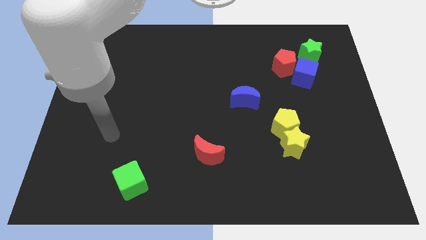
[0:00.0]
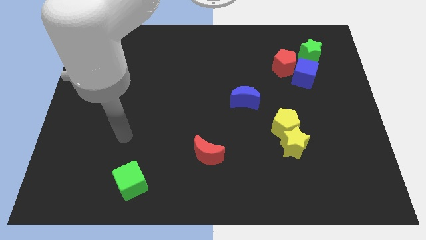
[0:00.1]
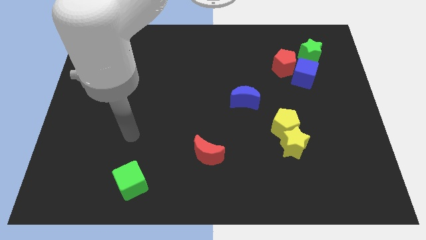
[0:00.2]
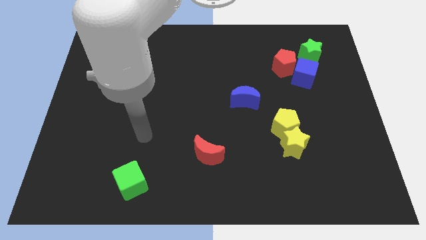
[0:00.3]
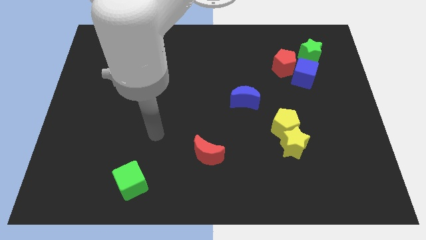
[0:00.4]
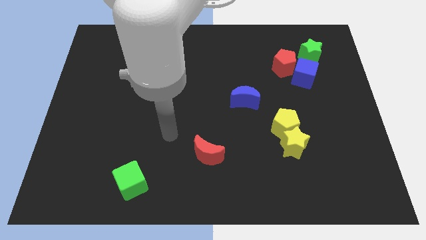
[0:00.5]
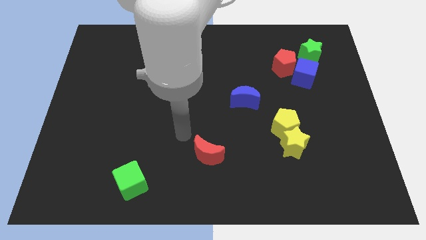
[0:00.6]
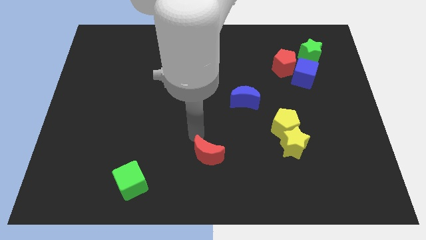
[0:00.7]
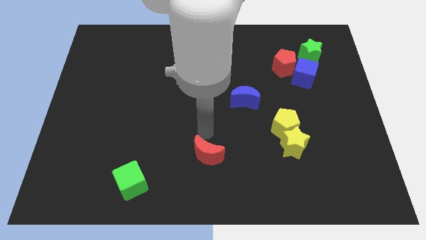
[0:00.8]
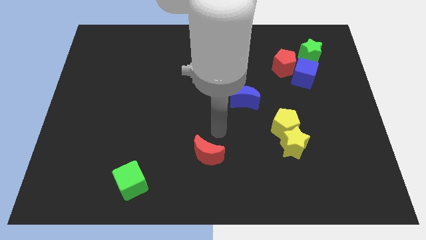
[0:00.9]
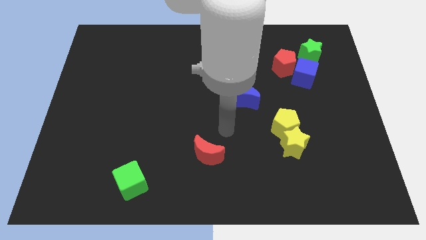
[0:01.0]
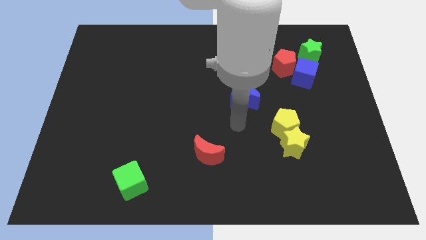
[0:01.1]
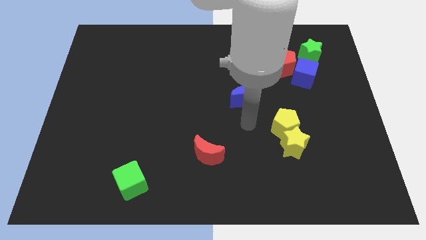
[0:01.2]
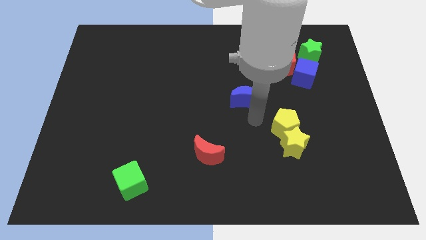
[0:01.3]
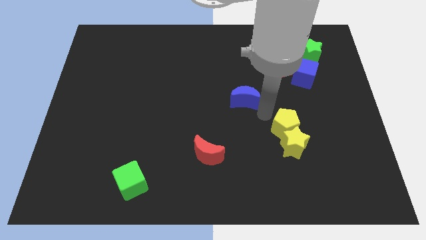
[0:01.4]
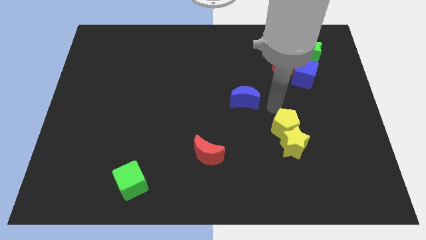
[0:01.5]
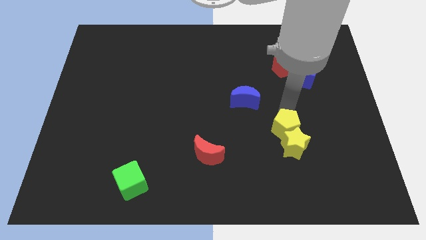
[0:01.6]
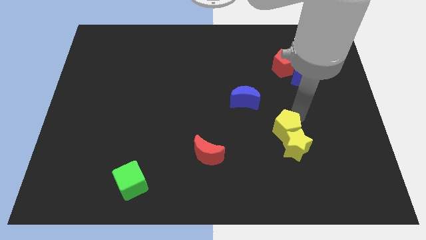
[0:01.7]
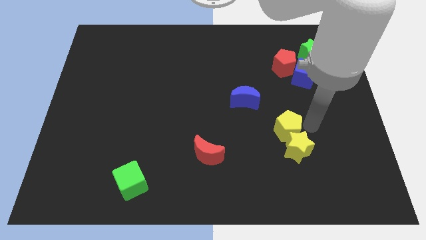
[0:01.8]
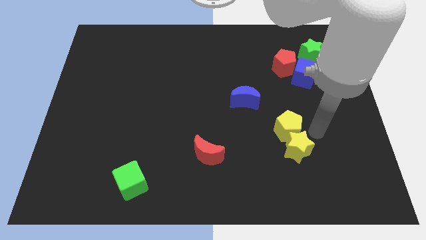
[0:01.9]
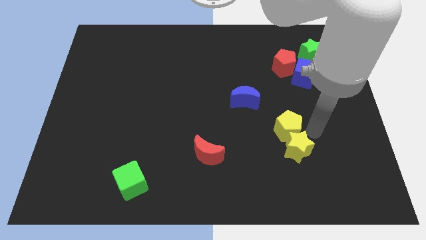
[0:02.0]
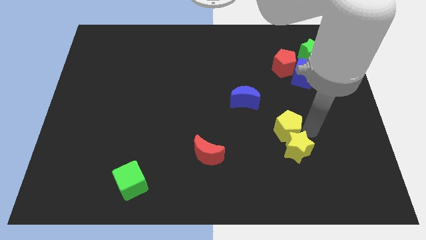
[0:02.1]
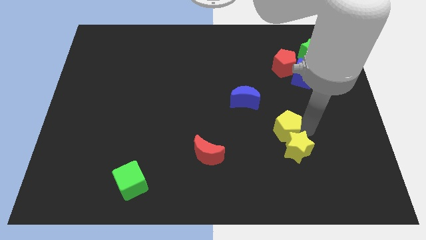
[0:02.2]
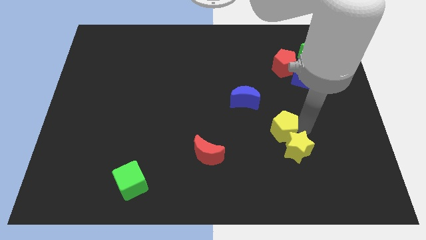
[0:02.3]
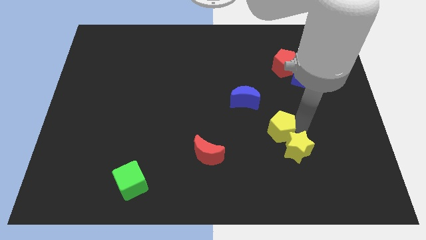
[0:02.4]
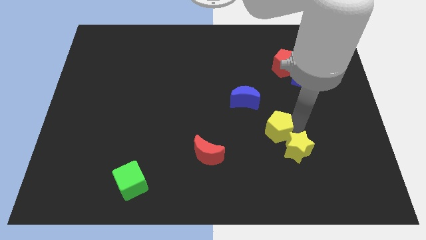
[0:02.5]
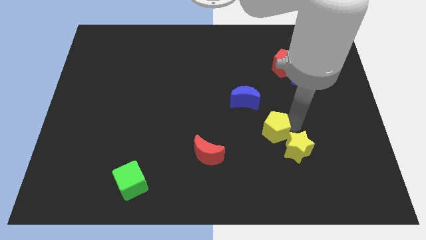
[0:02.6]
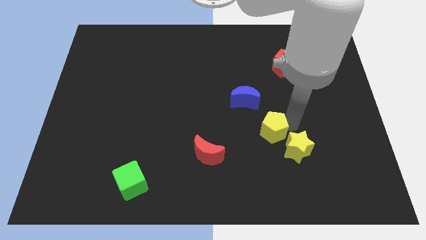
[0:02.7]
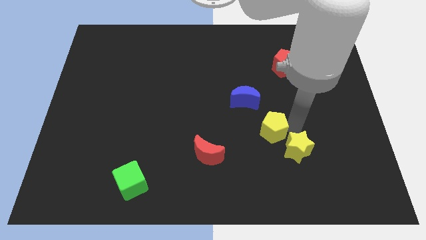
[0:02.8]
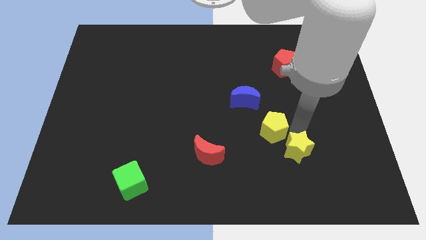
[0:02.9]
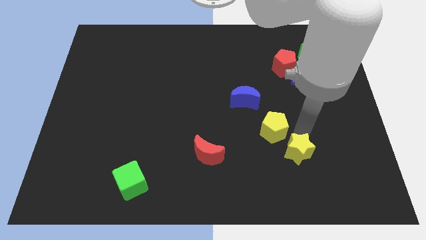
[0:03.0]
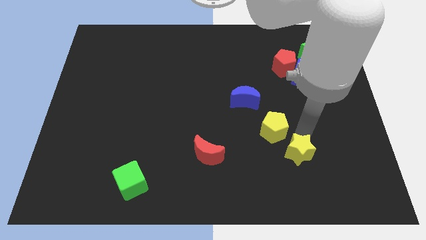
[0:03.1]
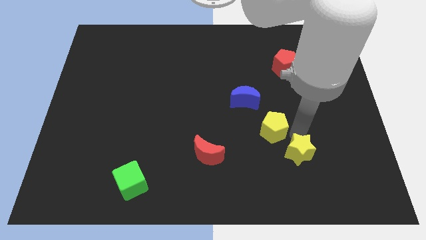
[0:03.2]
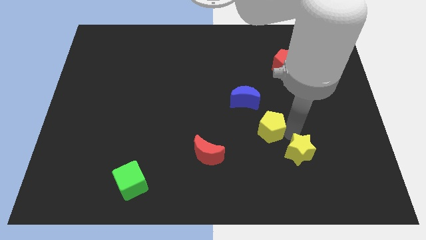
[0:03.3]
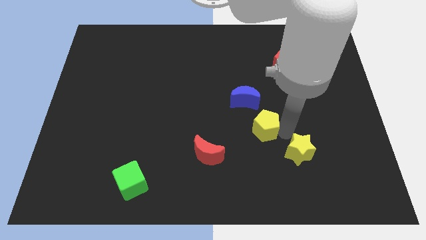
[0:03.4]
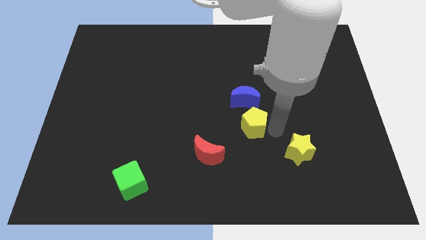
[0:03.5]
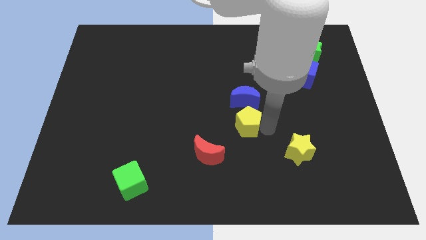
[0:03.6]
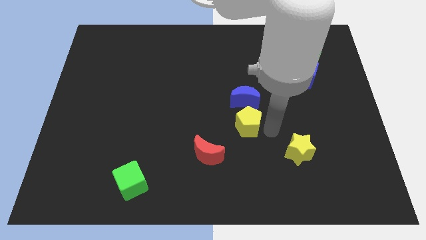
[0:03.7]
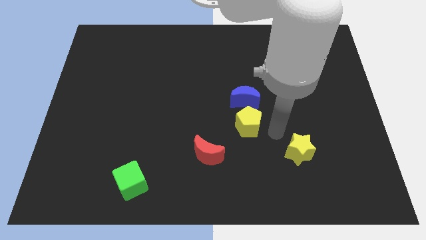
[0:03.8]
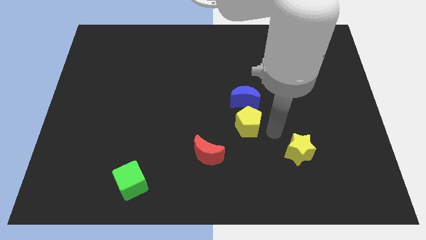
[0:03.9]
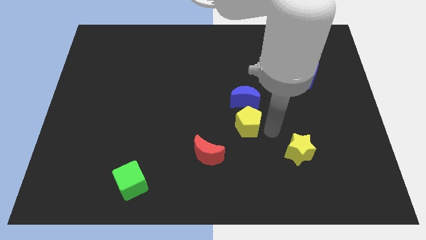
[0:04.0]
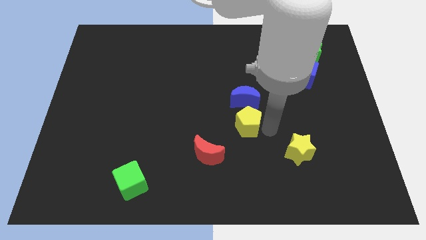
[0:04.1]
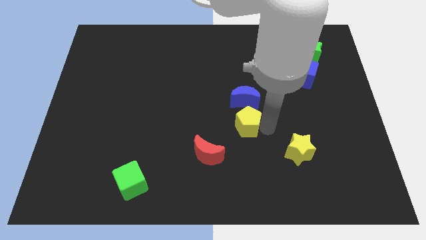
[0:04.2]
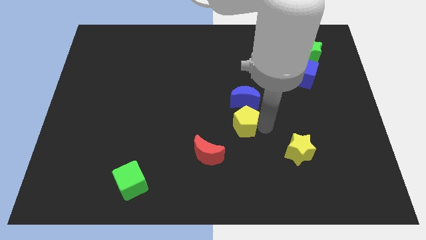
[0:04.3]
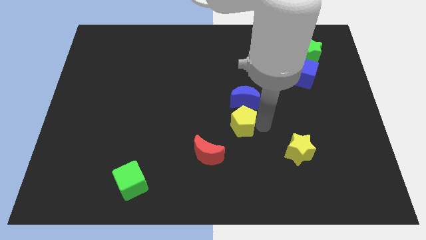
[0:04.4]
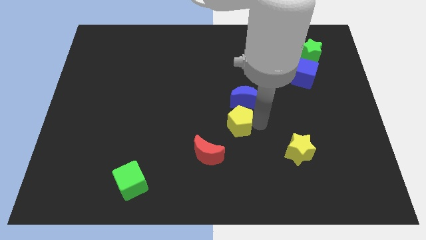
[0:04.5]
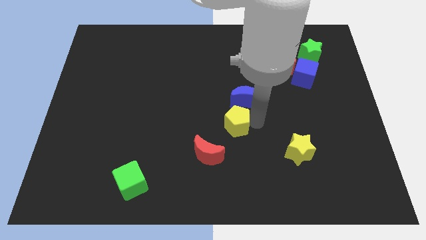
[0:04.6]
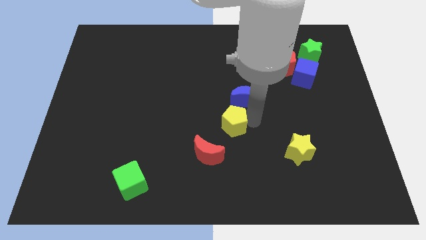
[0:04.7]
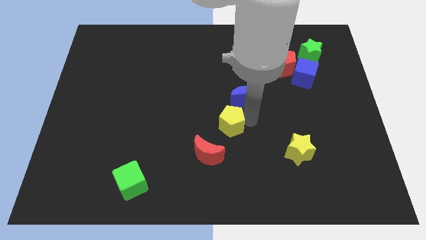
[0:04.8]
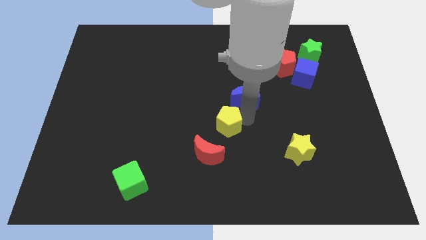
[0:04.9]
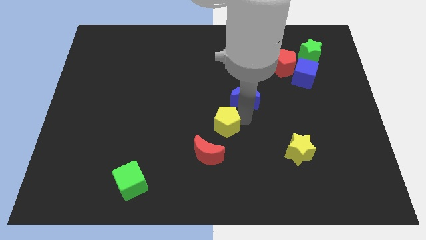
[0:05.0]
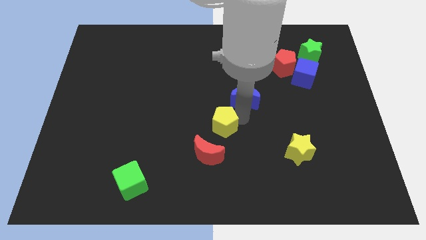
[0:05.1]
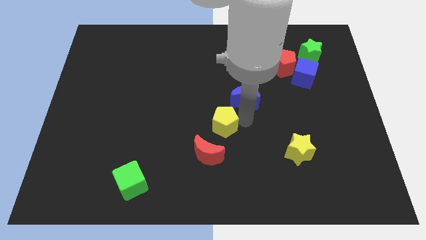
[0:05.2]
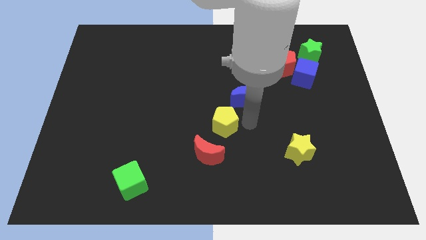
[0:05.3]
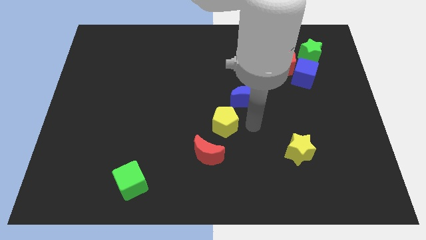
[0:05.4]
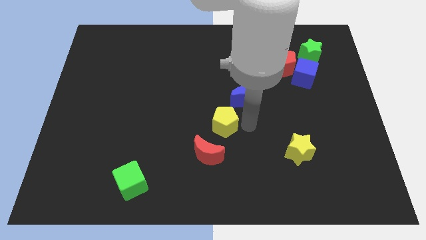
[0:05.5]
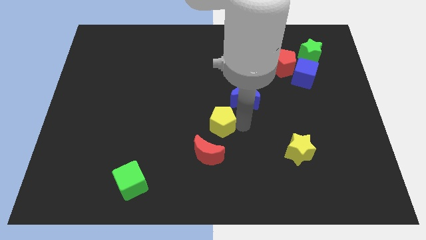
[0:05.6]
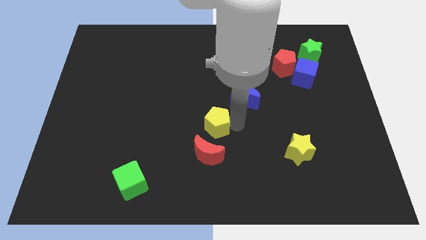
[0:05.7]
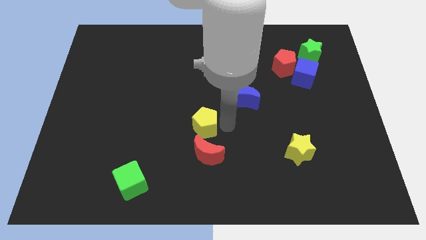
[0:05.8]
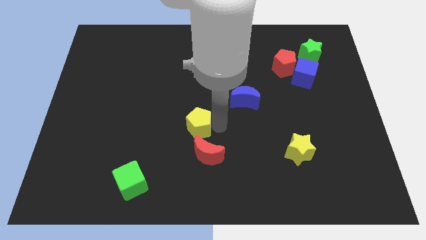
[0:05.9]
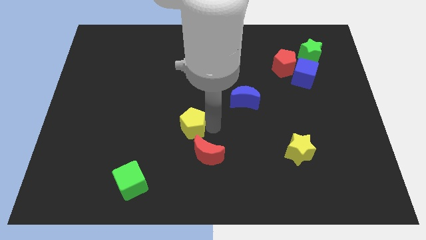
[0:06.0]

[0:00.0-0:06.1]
slide the yellow pentagon left

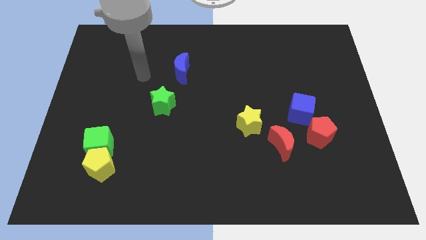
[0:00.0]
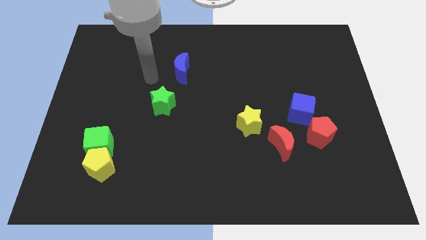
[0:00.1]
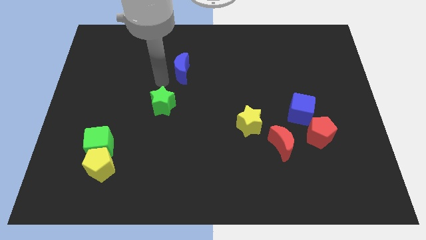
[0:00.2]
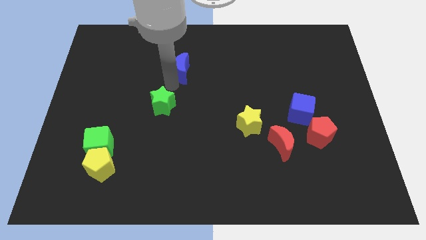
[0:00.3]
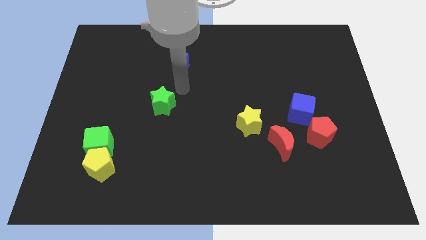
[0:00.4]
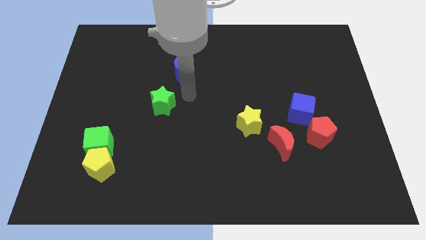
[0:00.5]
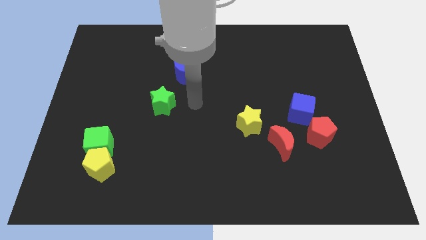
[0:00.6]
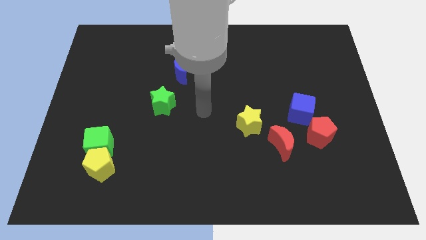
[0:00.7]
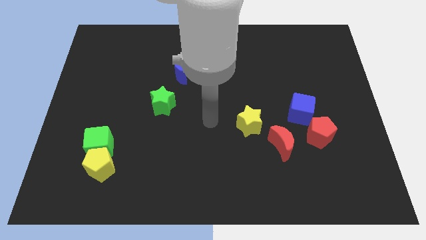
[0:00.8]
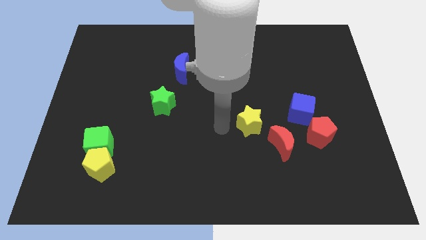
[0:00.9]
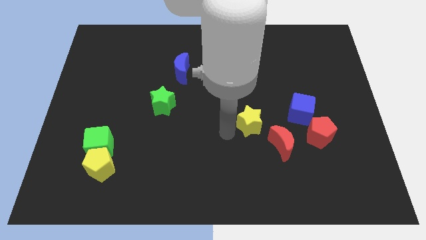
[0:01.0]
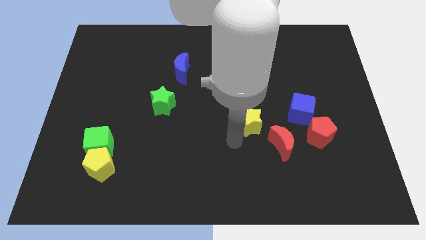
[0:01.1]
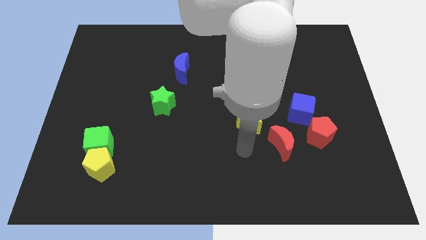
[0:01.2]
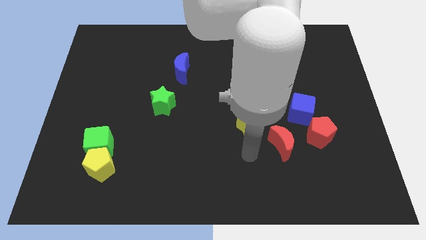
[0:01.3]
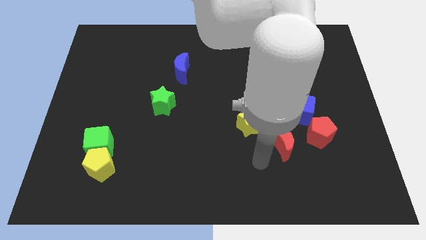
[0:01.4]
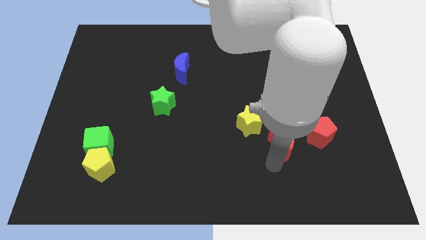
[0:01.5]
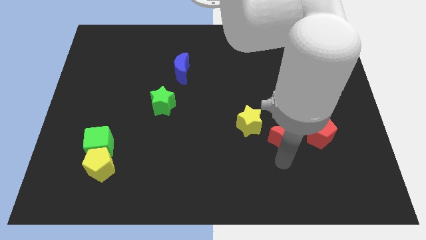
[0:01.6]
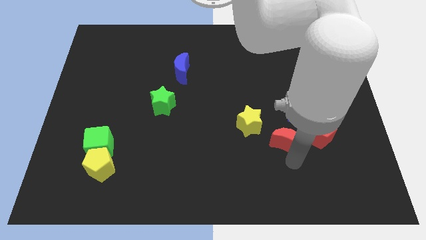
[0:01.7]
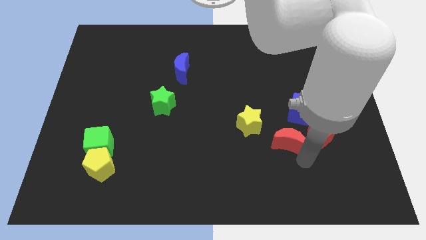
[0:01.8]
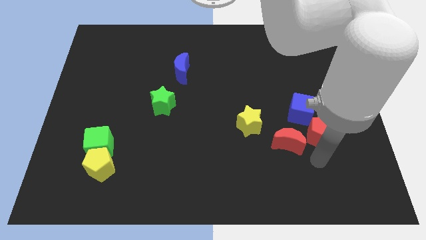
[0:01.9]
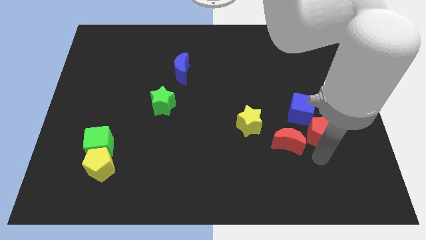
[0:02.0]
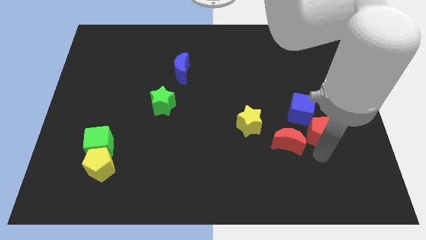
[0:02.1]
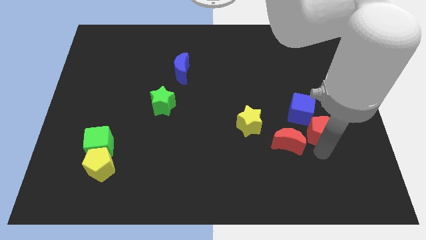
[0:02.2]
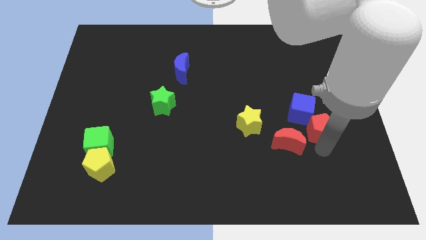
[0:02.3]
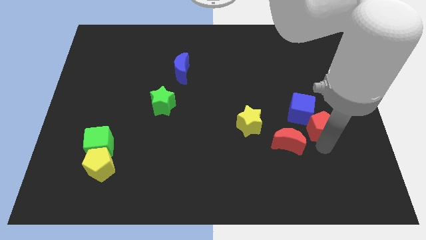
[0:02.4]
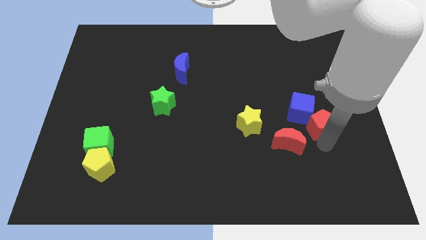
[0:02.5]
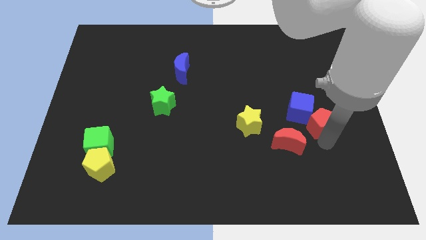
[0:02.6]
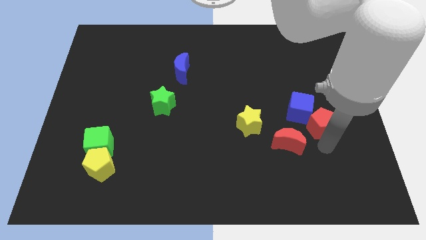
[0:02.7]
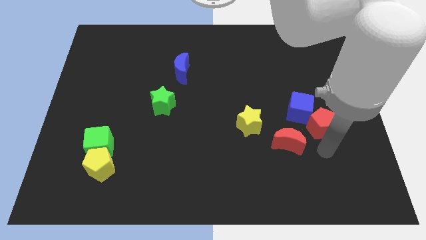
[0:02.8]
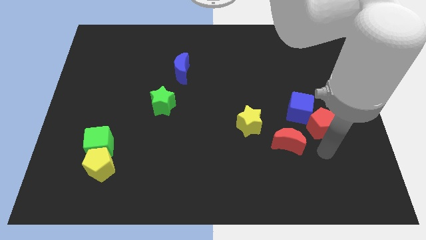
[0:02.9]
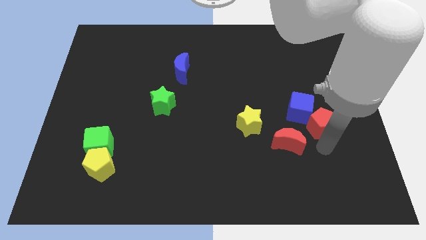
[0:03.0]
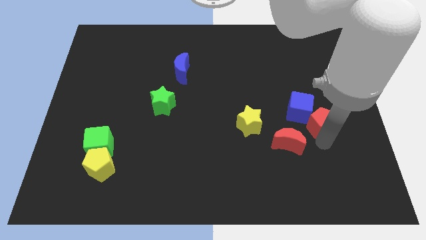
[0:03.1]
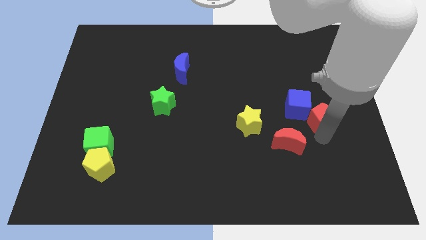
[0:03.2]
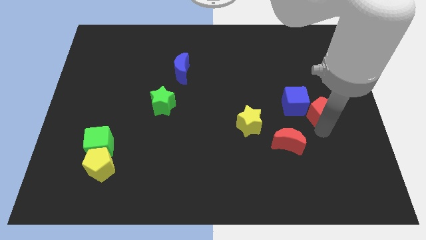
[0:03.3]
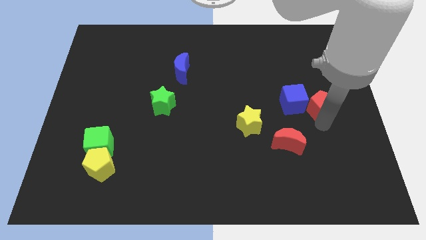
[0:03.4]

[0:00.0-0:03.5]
move the red pentagon a bit up
